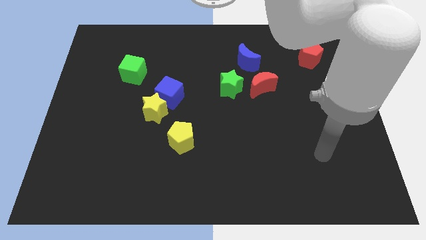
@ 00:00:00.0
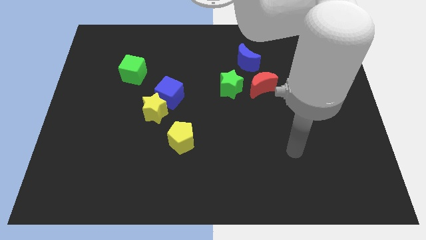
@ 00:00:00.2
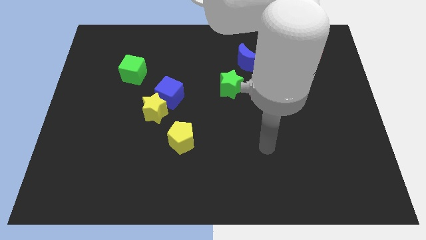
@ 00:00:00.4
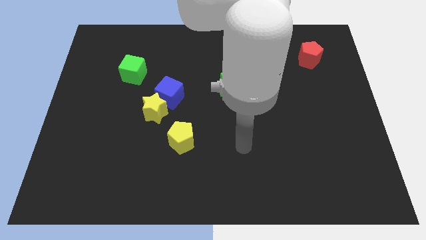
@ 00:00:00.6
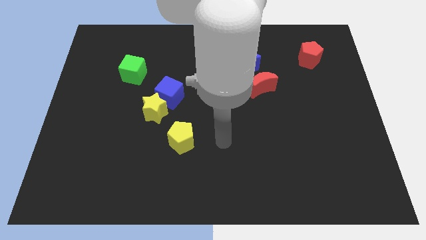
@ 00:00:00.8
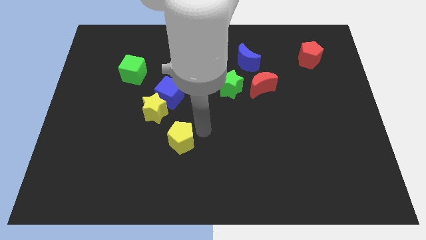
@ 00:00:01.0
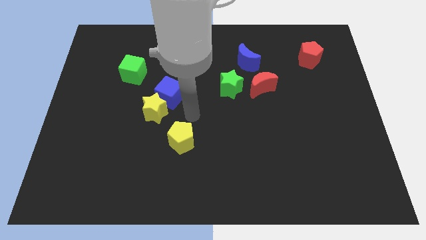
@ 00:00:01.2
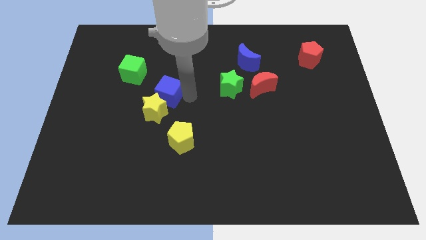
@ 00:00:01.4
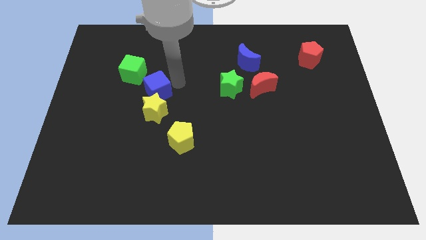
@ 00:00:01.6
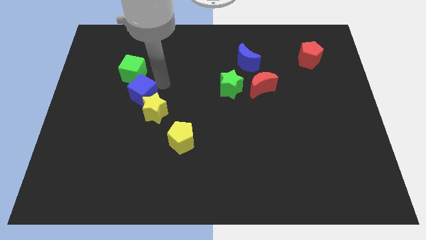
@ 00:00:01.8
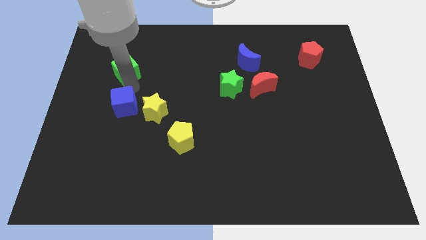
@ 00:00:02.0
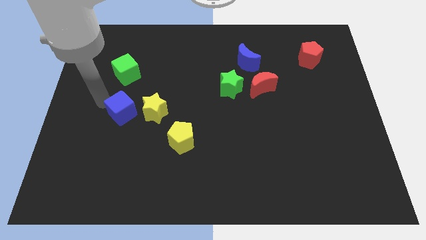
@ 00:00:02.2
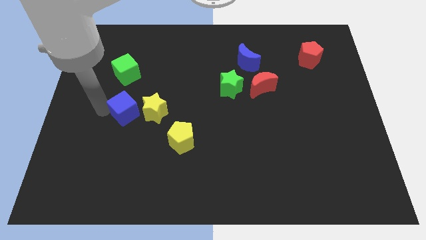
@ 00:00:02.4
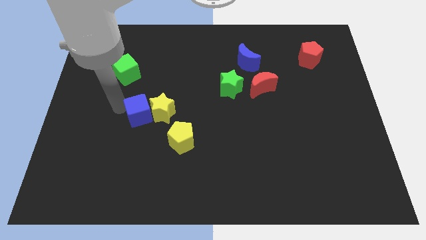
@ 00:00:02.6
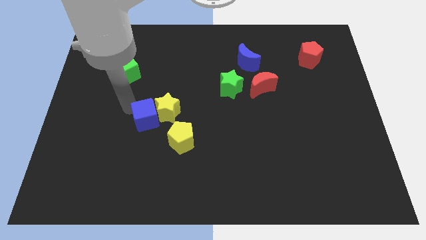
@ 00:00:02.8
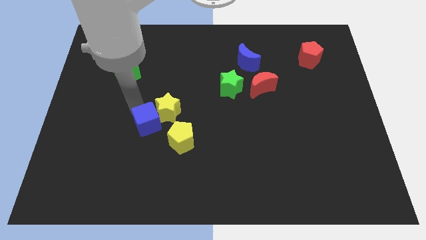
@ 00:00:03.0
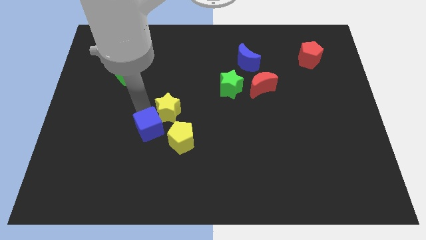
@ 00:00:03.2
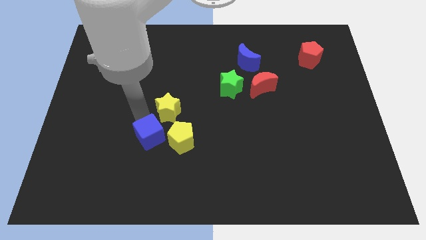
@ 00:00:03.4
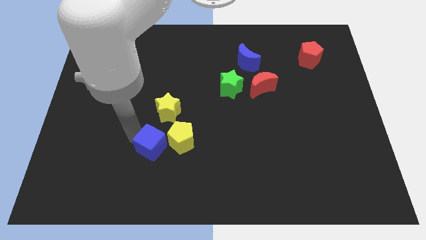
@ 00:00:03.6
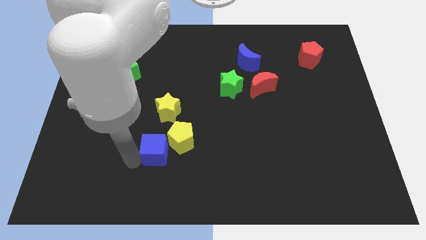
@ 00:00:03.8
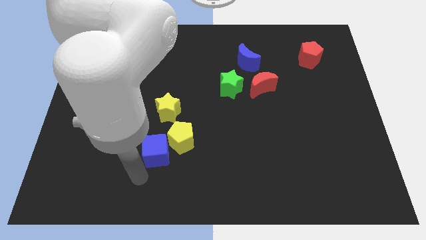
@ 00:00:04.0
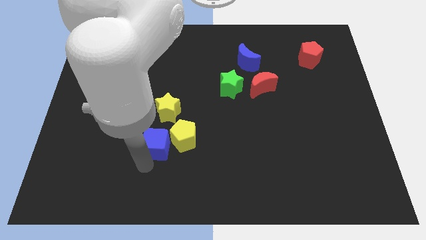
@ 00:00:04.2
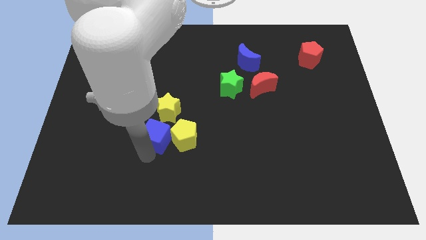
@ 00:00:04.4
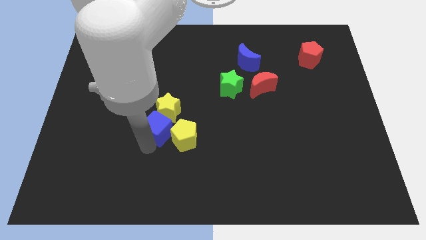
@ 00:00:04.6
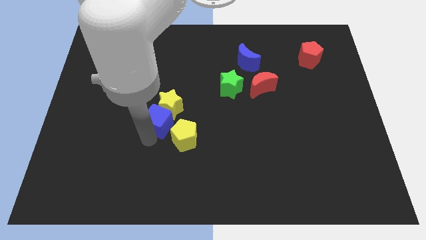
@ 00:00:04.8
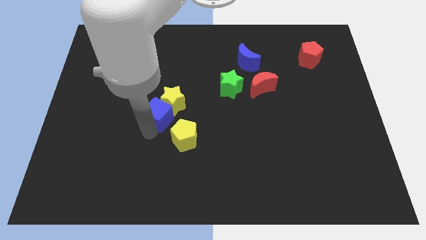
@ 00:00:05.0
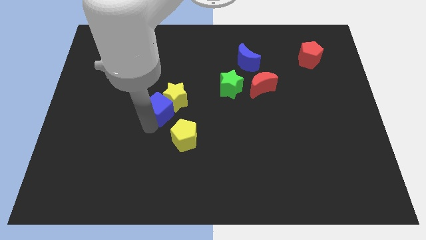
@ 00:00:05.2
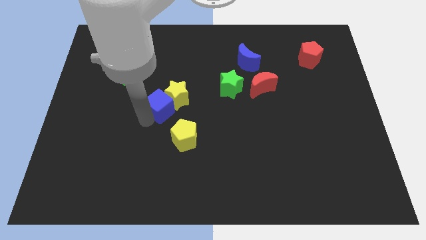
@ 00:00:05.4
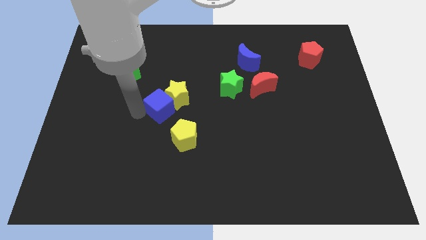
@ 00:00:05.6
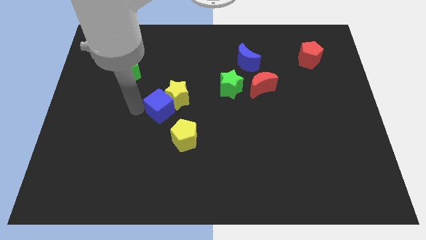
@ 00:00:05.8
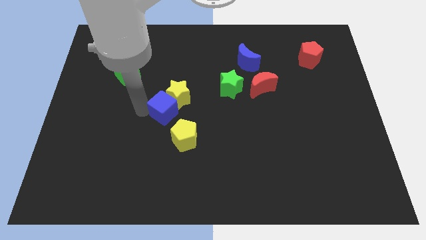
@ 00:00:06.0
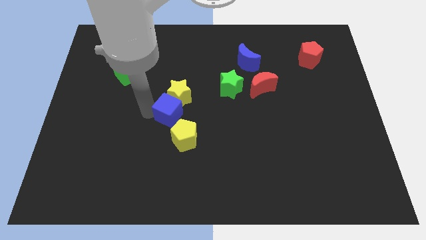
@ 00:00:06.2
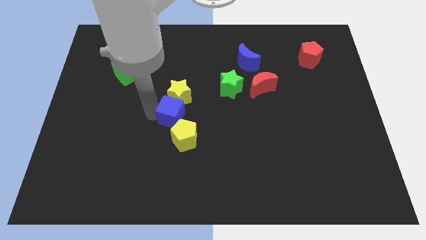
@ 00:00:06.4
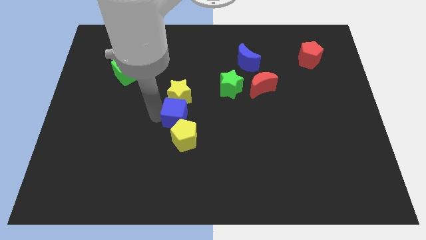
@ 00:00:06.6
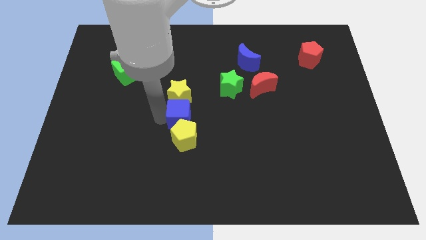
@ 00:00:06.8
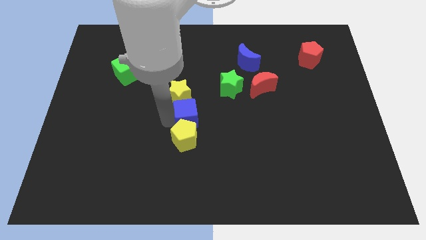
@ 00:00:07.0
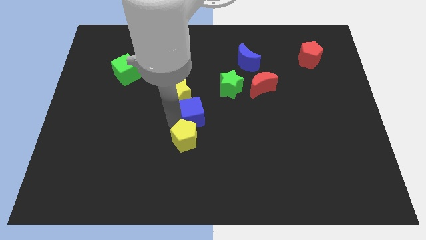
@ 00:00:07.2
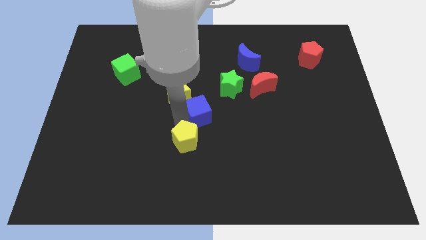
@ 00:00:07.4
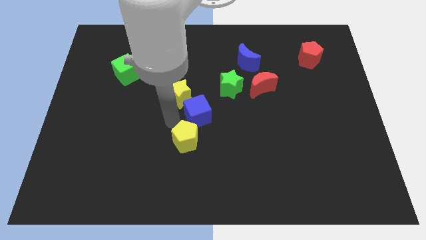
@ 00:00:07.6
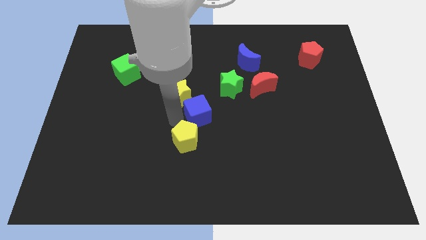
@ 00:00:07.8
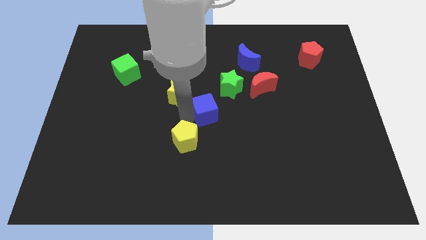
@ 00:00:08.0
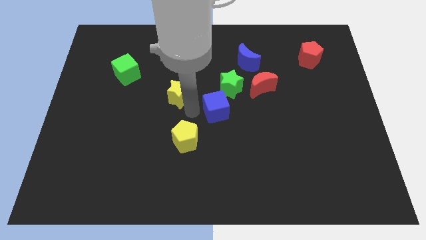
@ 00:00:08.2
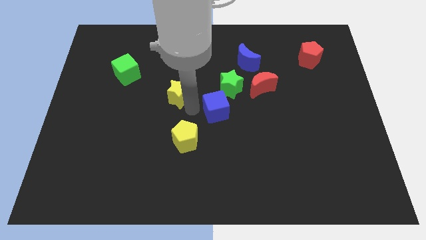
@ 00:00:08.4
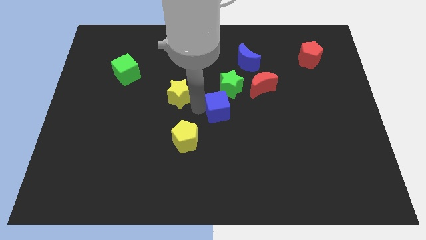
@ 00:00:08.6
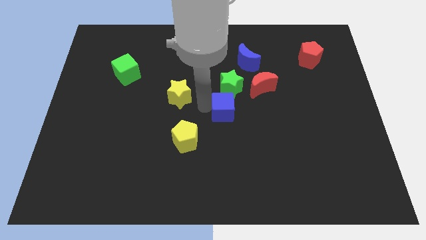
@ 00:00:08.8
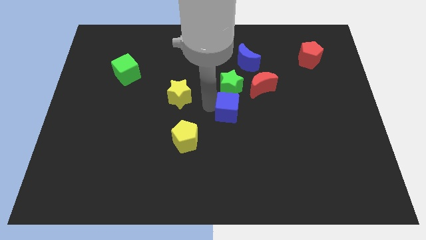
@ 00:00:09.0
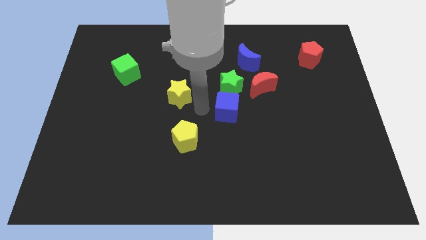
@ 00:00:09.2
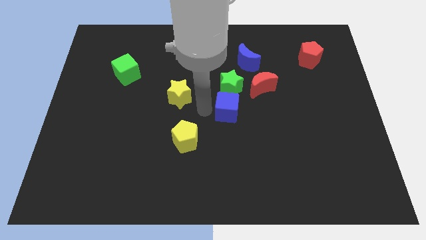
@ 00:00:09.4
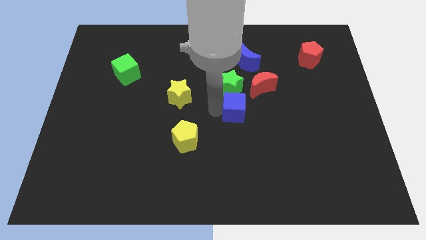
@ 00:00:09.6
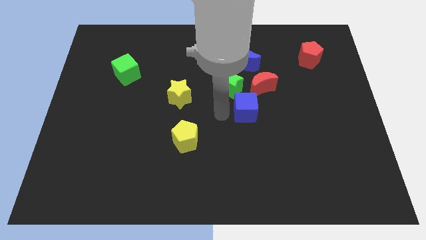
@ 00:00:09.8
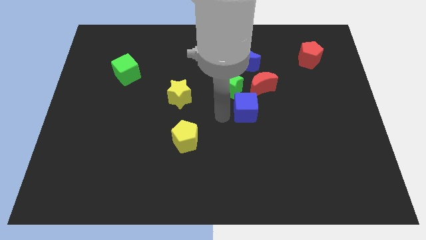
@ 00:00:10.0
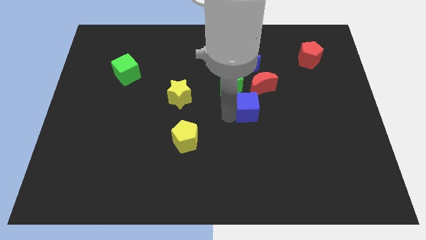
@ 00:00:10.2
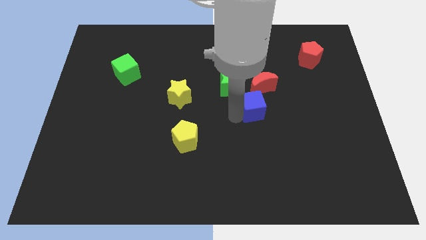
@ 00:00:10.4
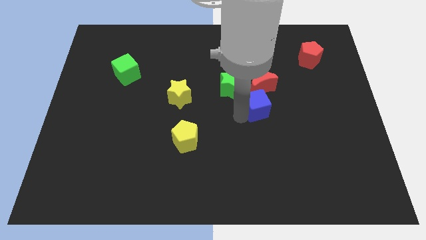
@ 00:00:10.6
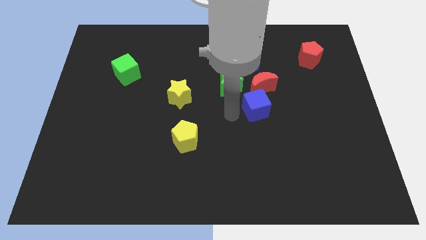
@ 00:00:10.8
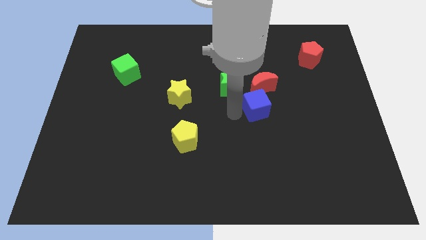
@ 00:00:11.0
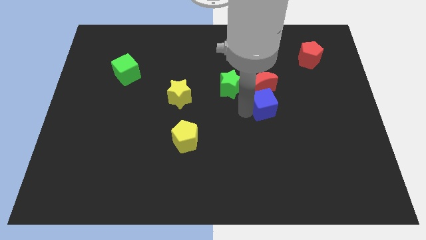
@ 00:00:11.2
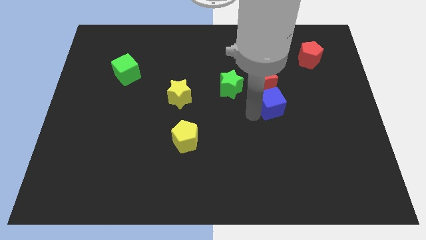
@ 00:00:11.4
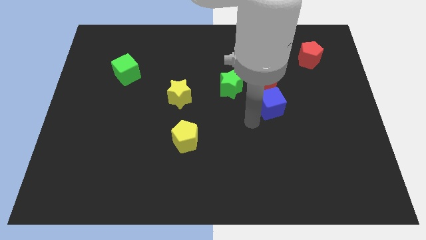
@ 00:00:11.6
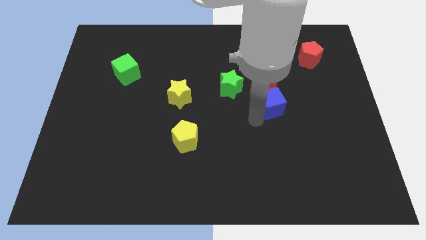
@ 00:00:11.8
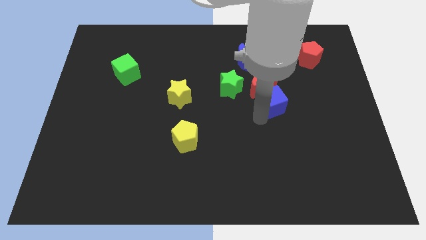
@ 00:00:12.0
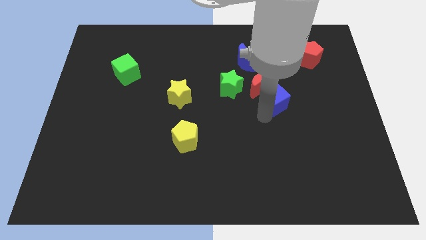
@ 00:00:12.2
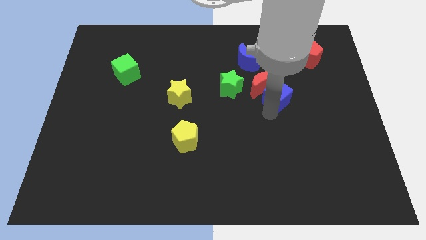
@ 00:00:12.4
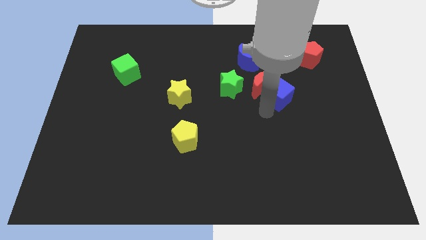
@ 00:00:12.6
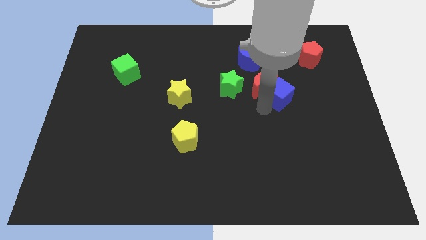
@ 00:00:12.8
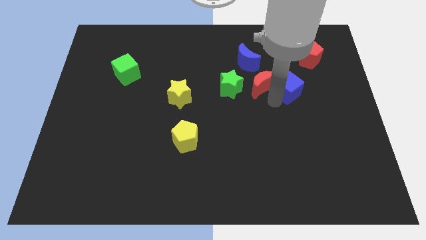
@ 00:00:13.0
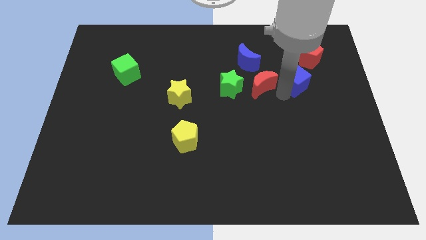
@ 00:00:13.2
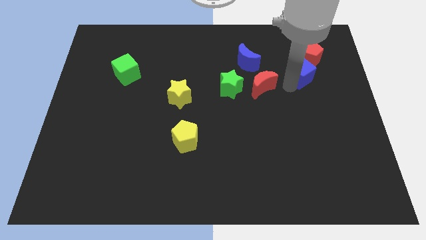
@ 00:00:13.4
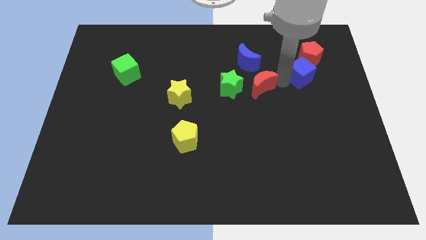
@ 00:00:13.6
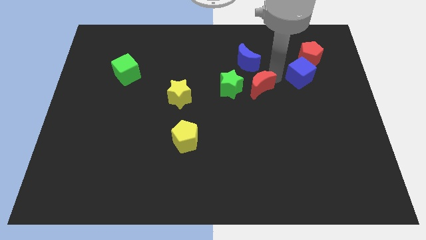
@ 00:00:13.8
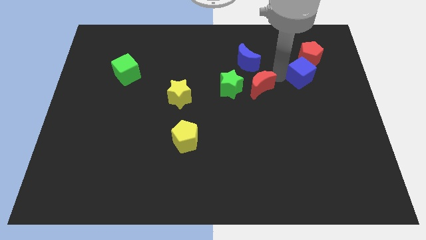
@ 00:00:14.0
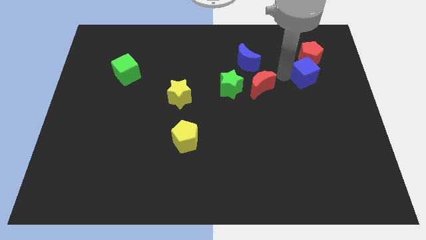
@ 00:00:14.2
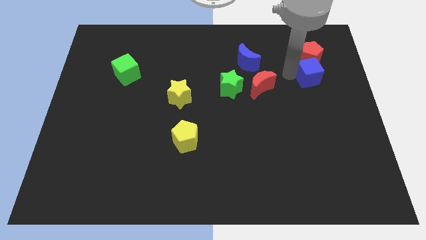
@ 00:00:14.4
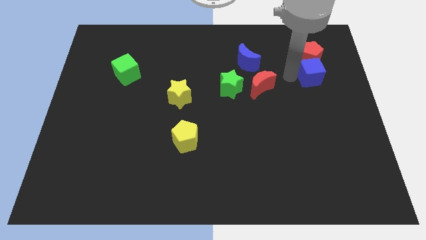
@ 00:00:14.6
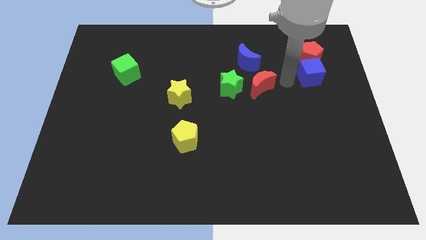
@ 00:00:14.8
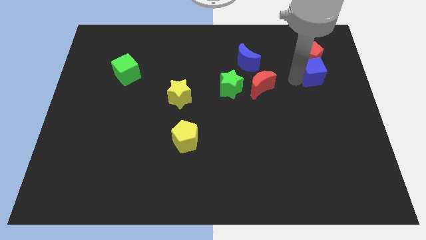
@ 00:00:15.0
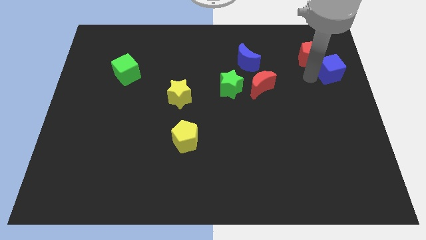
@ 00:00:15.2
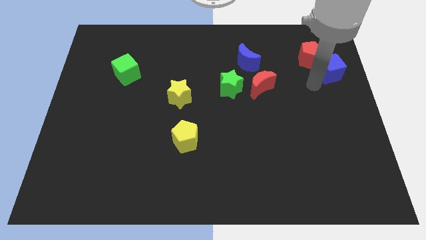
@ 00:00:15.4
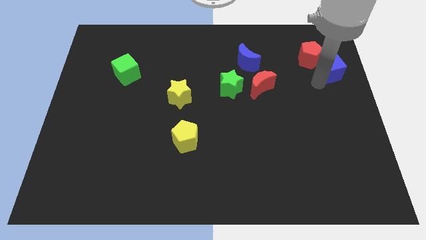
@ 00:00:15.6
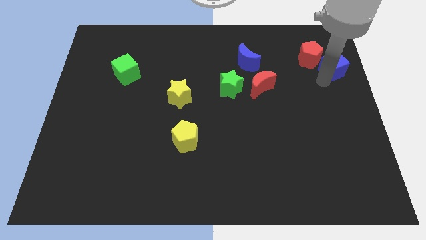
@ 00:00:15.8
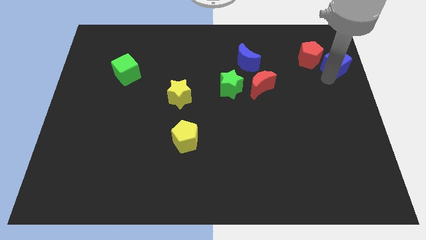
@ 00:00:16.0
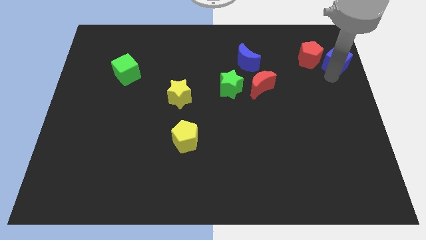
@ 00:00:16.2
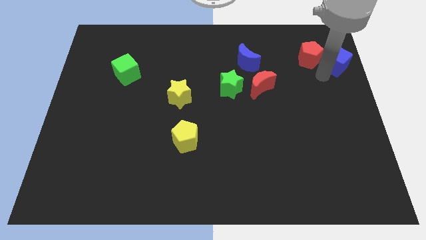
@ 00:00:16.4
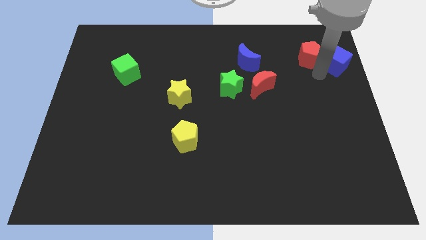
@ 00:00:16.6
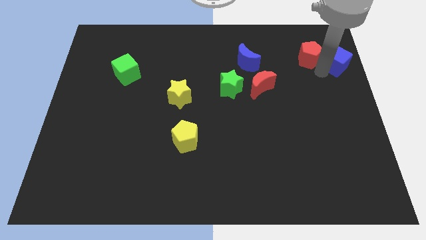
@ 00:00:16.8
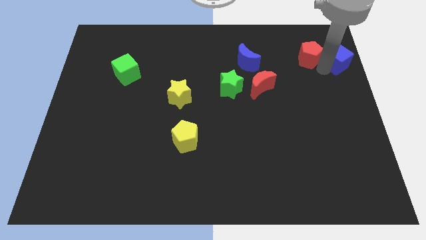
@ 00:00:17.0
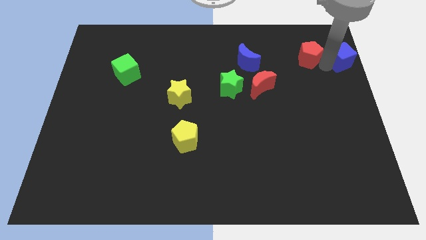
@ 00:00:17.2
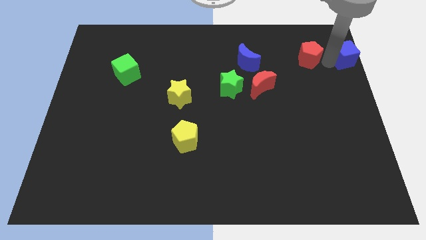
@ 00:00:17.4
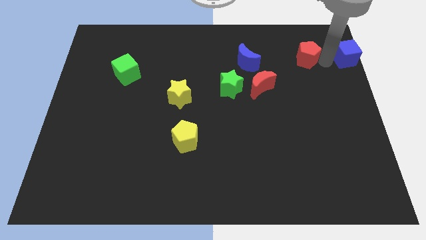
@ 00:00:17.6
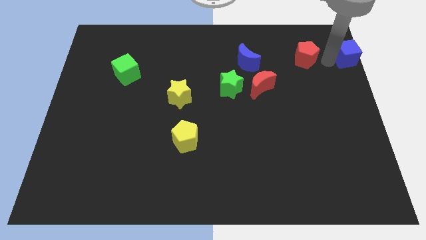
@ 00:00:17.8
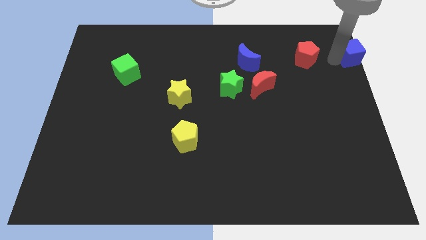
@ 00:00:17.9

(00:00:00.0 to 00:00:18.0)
put the blue cube to the top right corner
